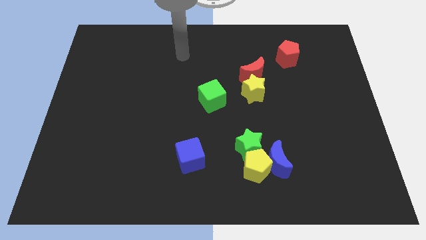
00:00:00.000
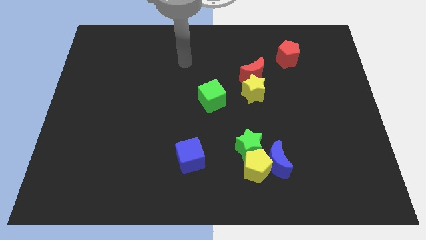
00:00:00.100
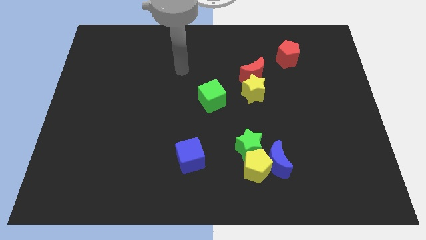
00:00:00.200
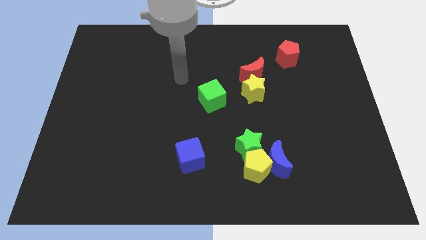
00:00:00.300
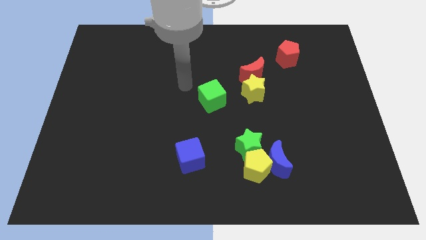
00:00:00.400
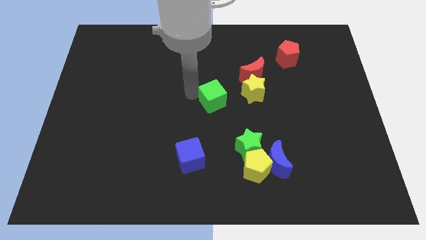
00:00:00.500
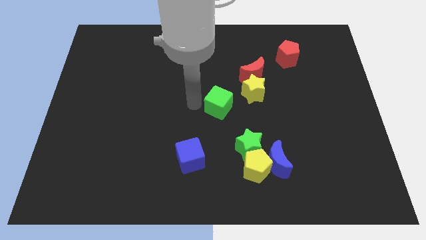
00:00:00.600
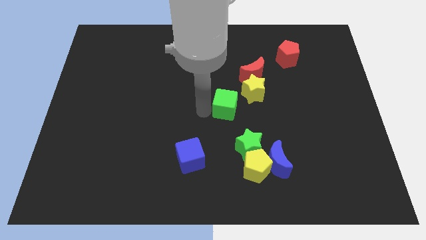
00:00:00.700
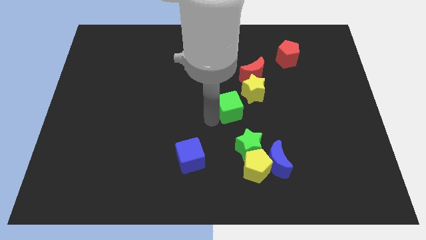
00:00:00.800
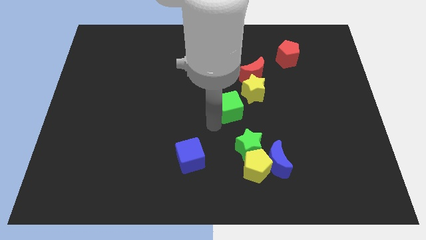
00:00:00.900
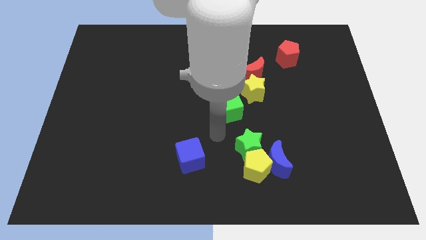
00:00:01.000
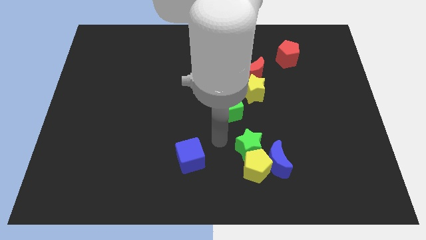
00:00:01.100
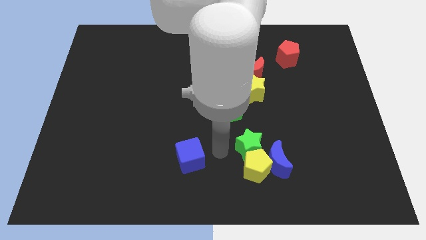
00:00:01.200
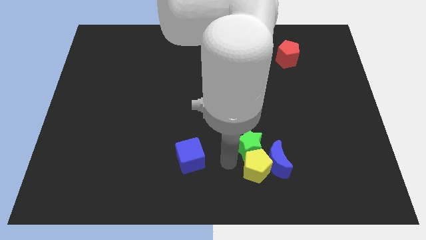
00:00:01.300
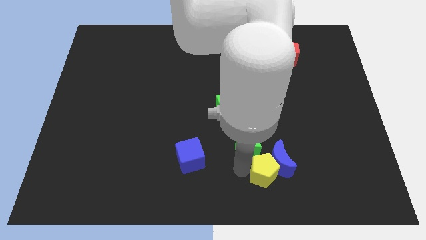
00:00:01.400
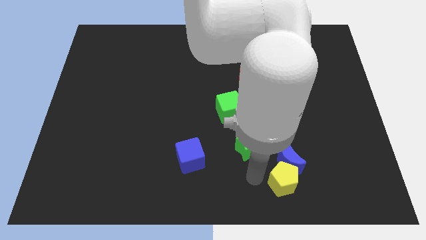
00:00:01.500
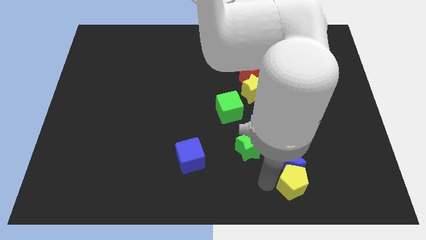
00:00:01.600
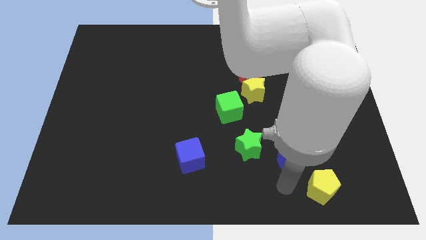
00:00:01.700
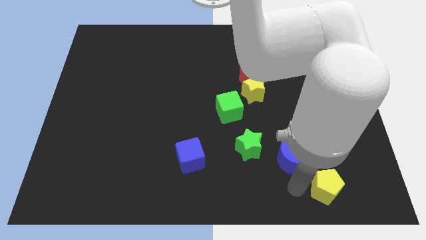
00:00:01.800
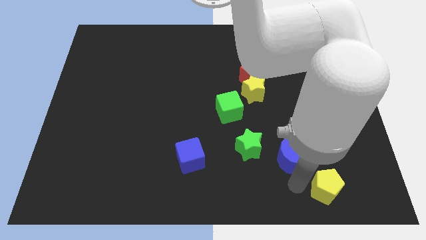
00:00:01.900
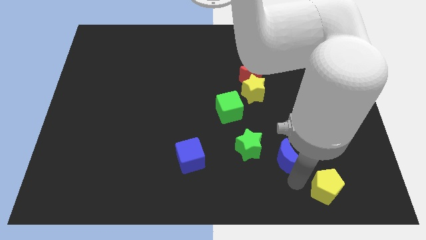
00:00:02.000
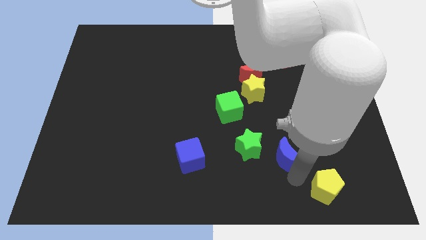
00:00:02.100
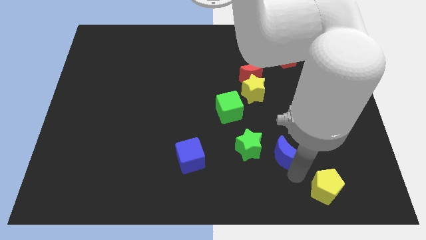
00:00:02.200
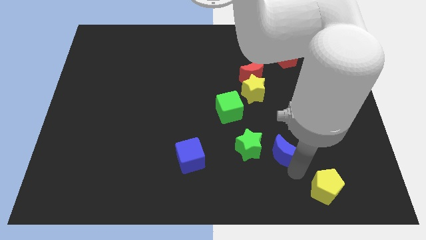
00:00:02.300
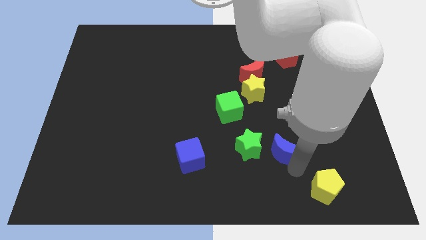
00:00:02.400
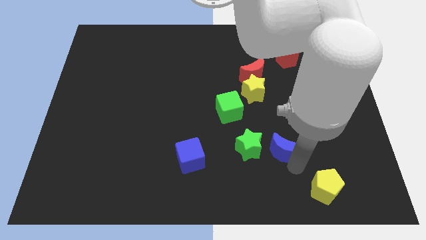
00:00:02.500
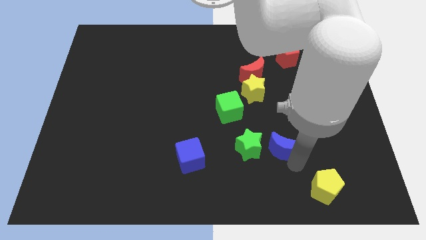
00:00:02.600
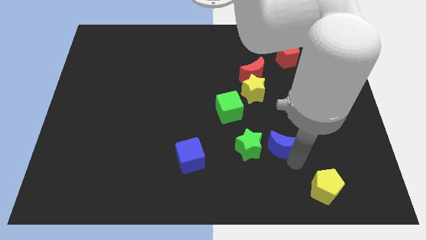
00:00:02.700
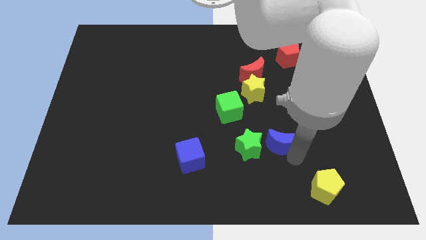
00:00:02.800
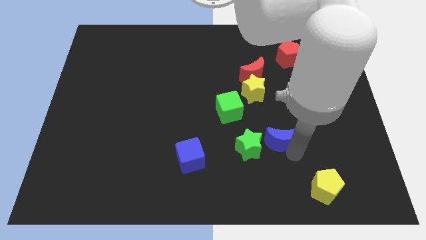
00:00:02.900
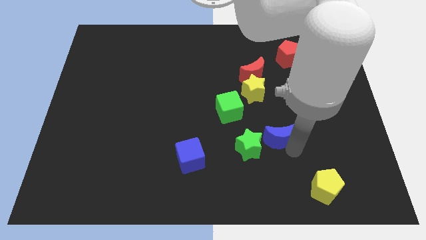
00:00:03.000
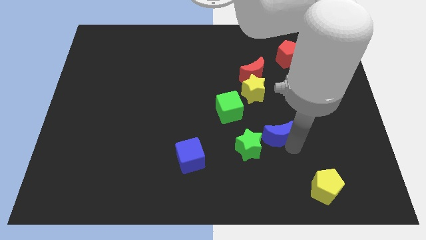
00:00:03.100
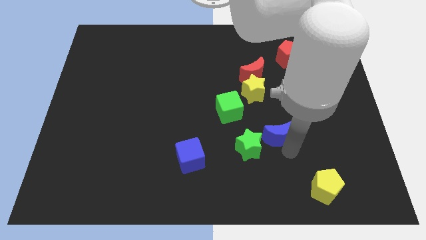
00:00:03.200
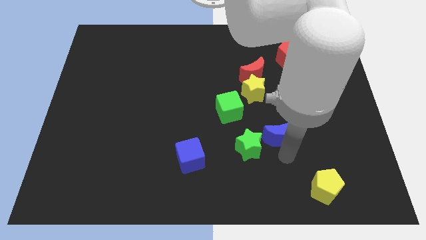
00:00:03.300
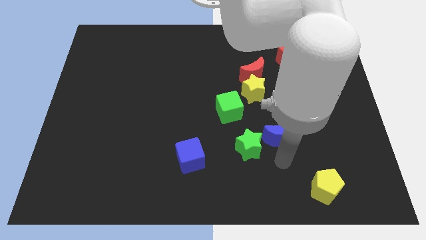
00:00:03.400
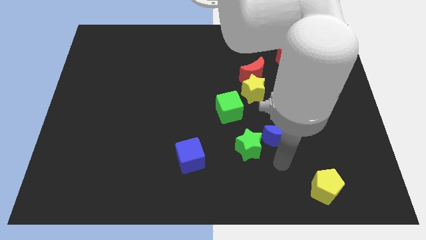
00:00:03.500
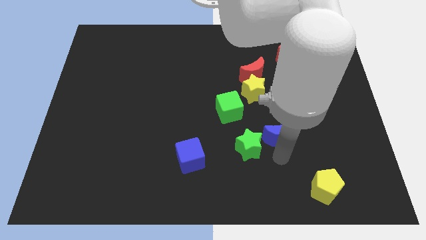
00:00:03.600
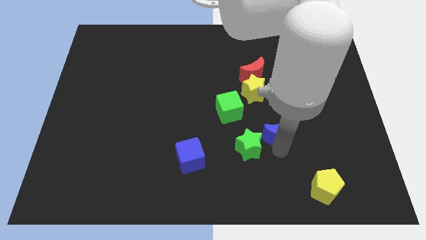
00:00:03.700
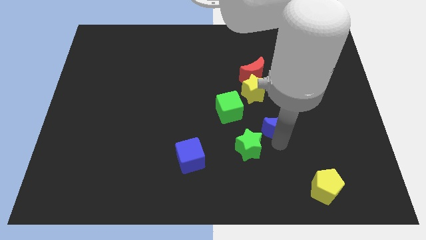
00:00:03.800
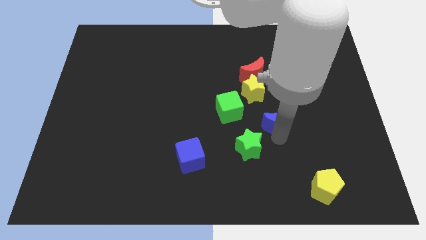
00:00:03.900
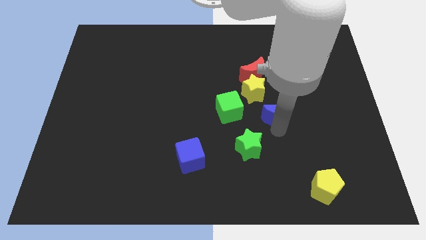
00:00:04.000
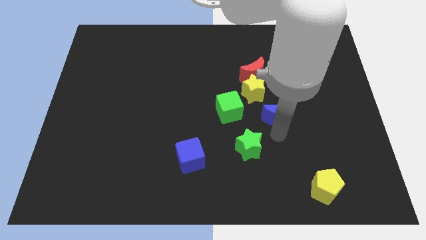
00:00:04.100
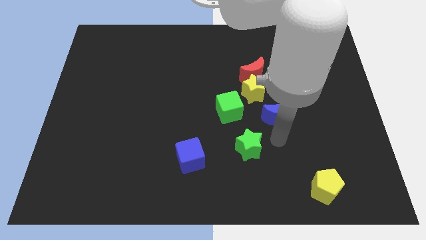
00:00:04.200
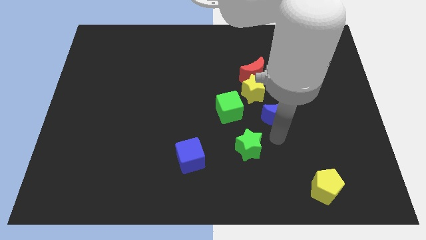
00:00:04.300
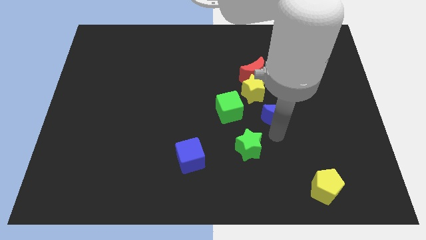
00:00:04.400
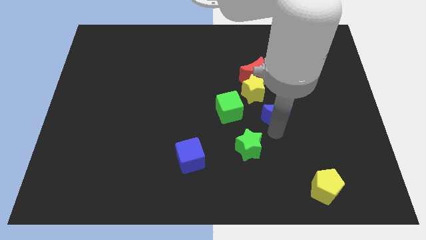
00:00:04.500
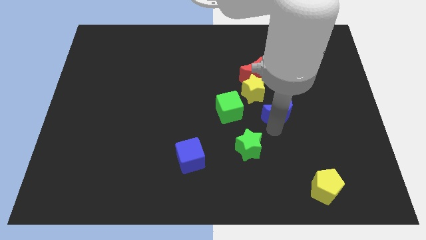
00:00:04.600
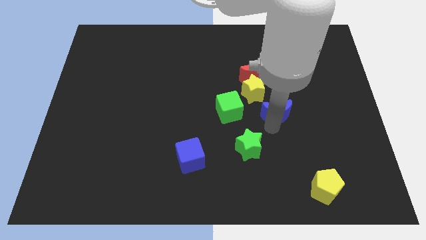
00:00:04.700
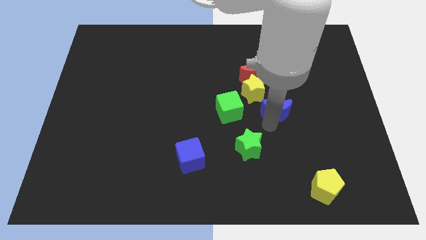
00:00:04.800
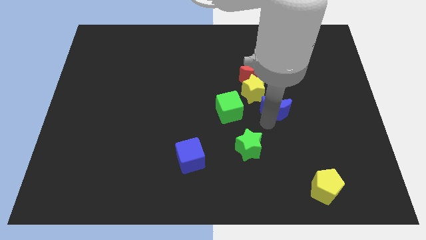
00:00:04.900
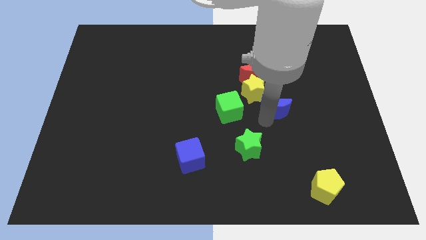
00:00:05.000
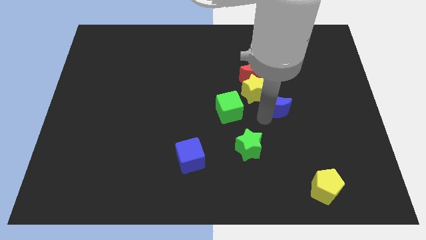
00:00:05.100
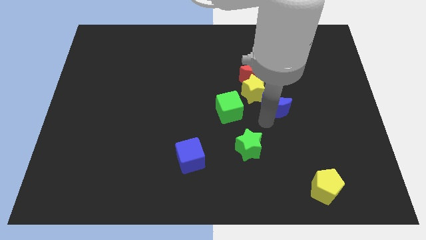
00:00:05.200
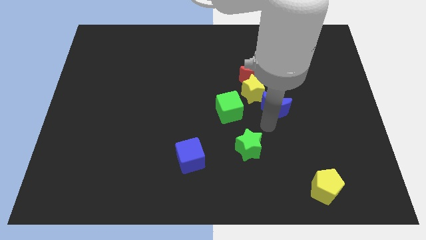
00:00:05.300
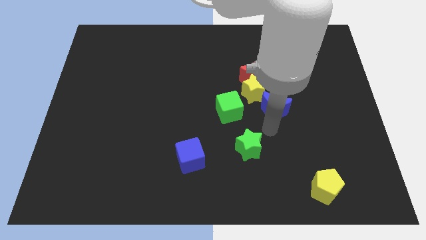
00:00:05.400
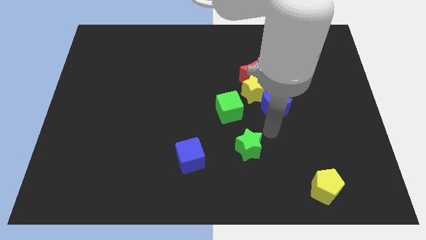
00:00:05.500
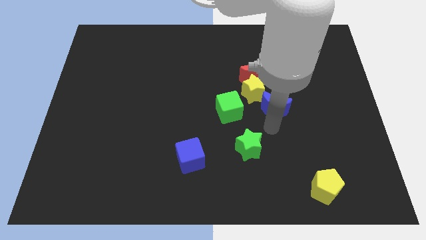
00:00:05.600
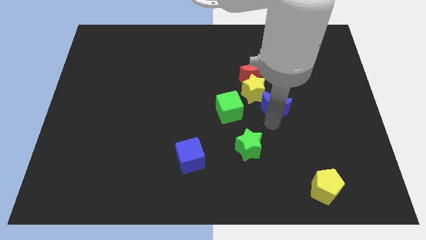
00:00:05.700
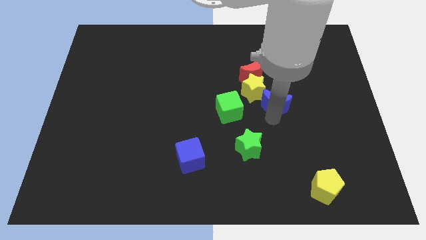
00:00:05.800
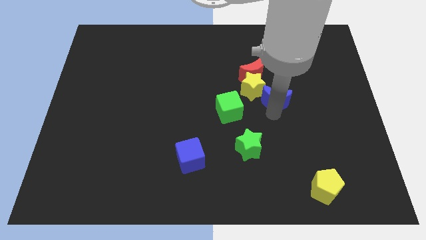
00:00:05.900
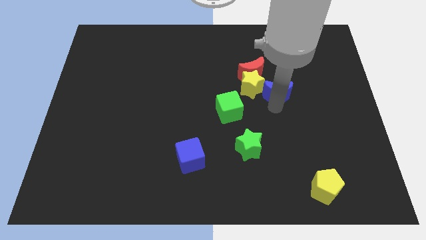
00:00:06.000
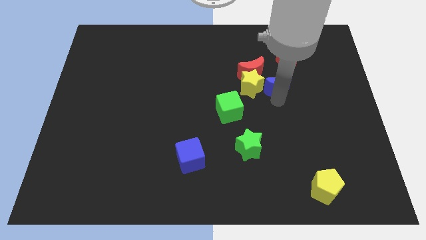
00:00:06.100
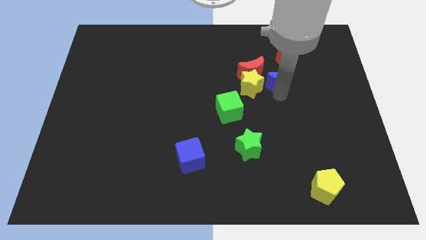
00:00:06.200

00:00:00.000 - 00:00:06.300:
slide the blue moon diagonally up and to the right of the yellow star
